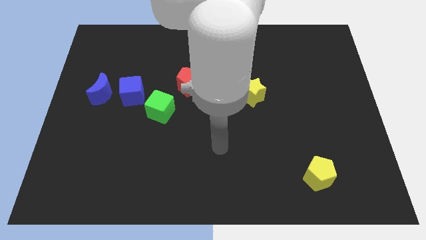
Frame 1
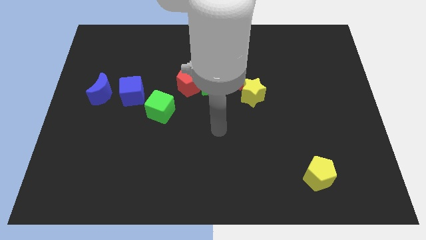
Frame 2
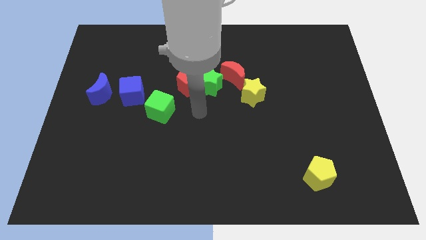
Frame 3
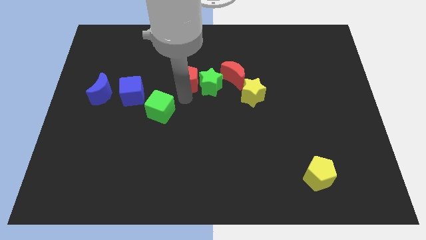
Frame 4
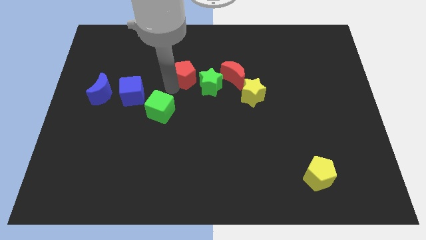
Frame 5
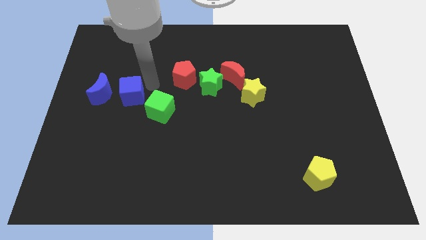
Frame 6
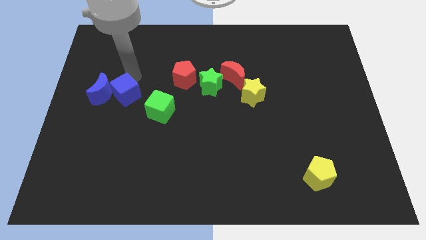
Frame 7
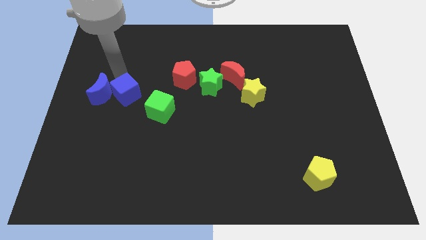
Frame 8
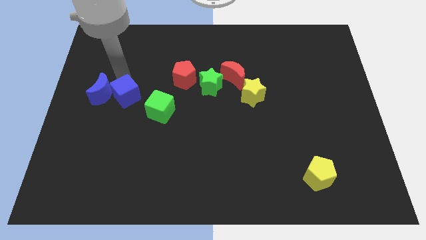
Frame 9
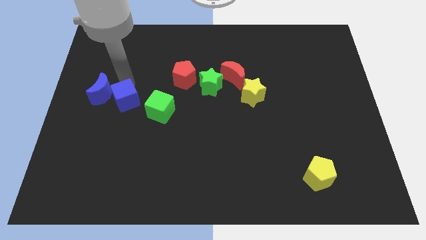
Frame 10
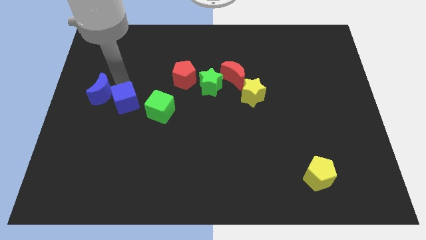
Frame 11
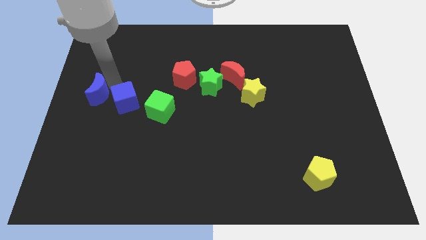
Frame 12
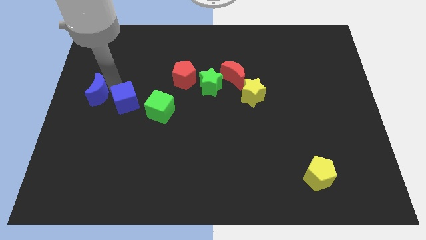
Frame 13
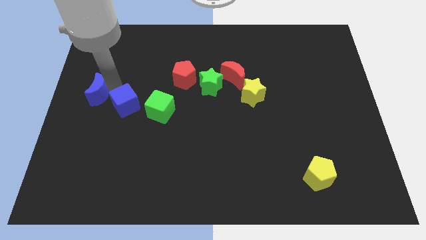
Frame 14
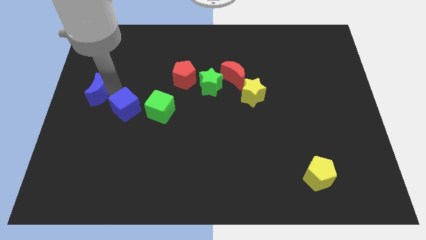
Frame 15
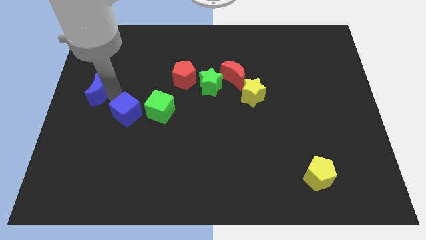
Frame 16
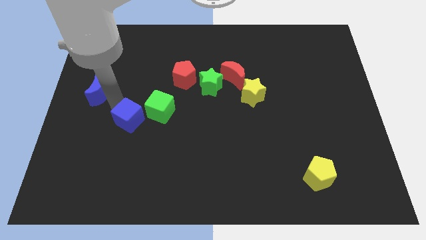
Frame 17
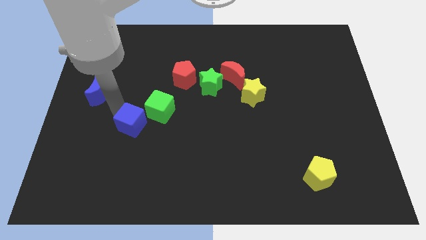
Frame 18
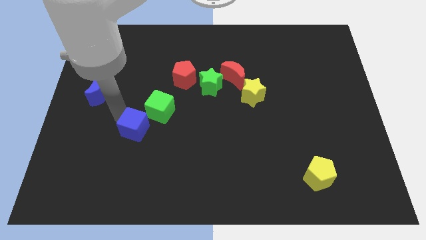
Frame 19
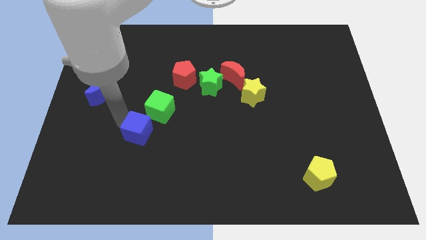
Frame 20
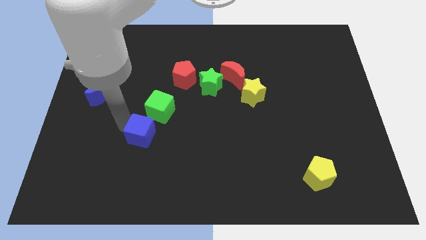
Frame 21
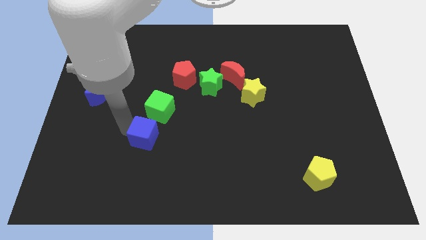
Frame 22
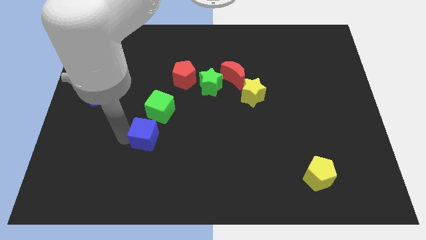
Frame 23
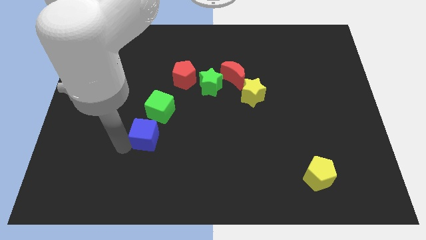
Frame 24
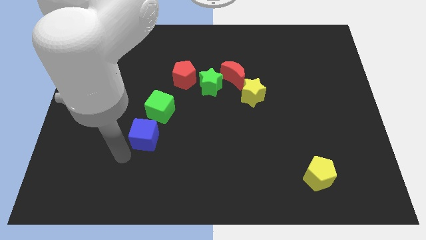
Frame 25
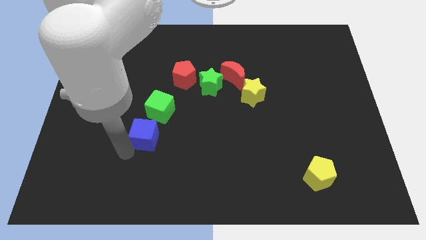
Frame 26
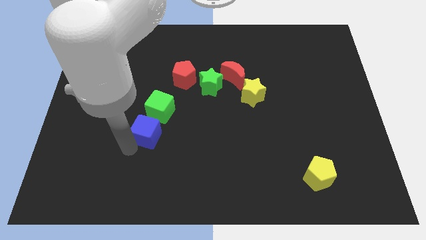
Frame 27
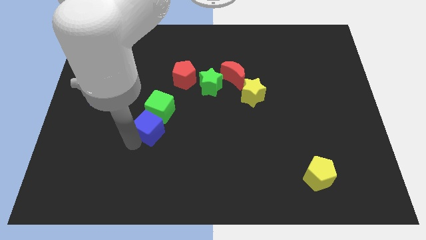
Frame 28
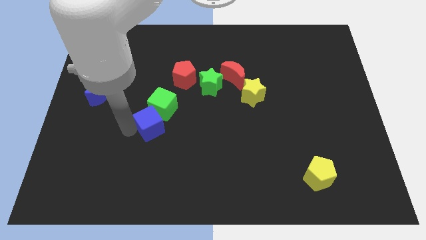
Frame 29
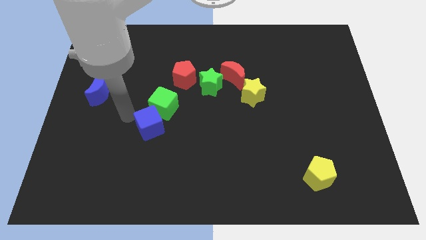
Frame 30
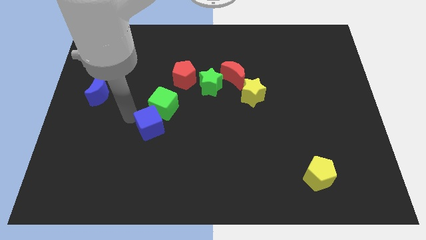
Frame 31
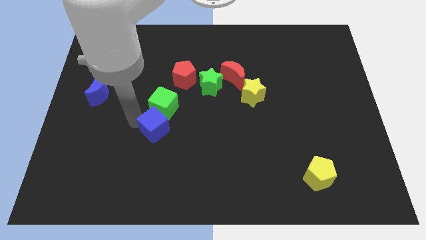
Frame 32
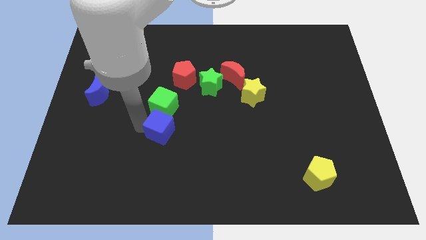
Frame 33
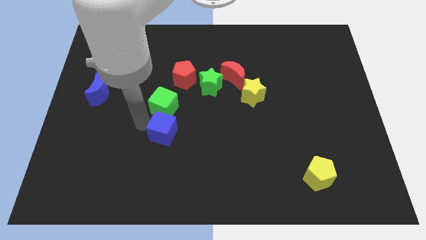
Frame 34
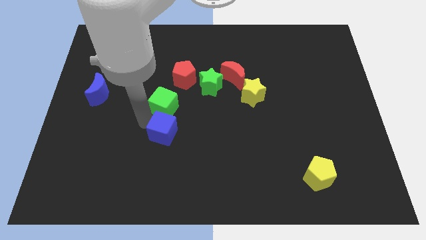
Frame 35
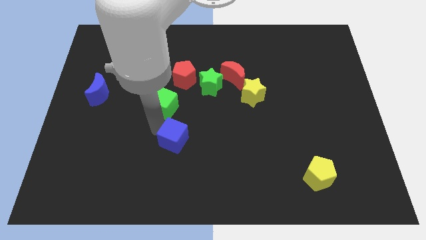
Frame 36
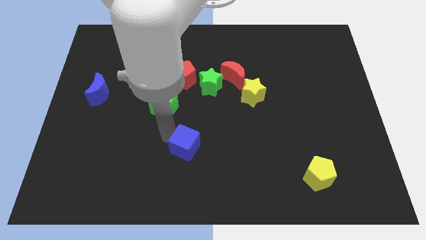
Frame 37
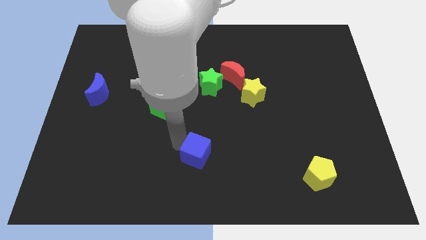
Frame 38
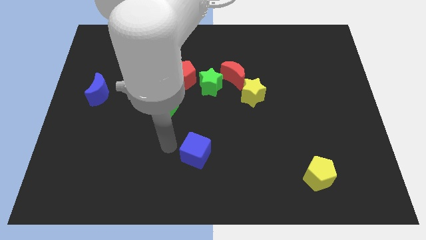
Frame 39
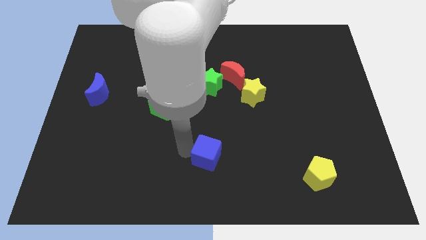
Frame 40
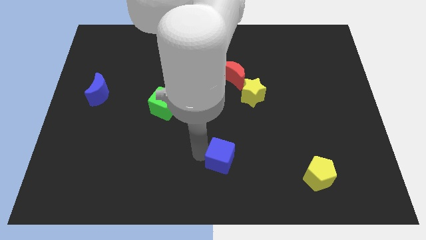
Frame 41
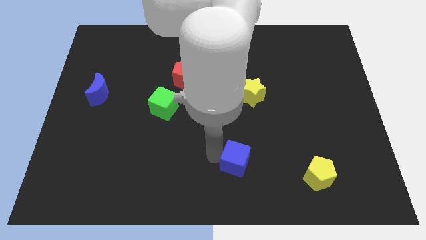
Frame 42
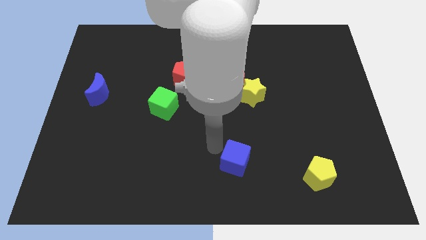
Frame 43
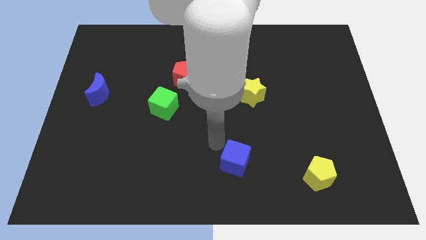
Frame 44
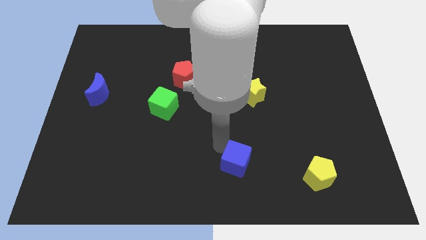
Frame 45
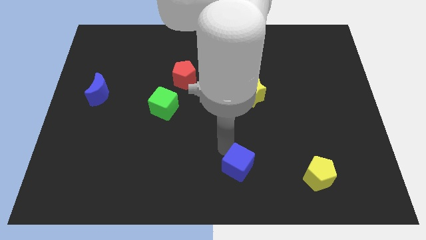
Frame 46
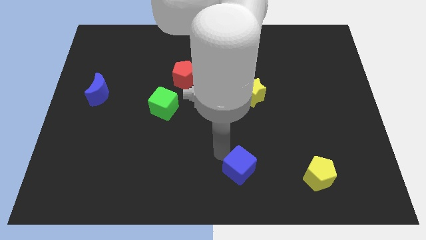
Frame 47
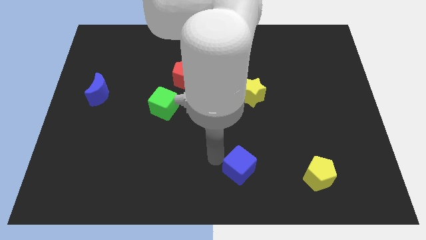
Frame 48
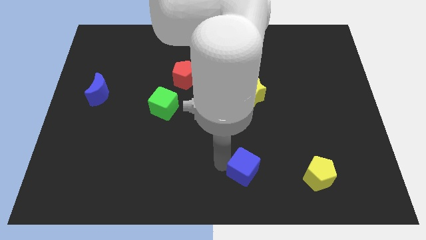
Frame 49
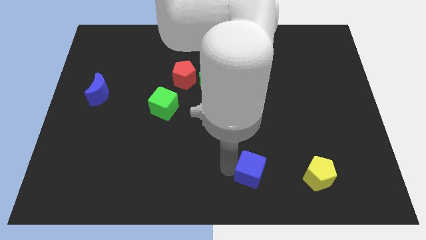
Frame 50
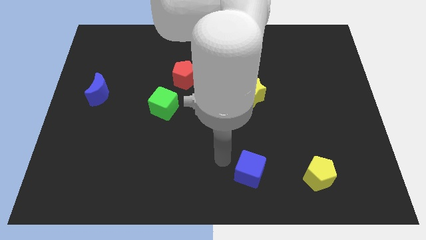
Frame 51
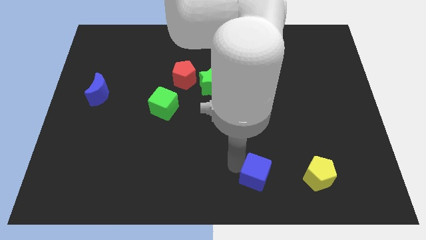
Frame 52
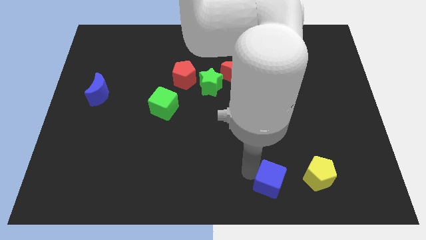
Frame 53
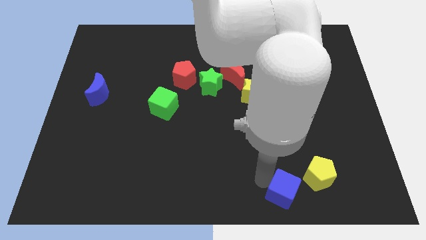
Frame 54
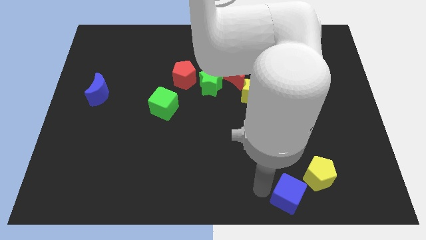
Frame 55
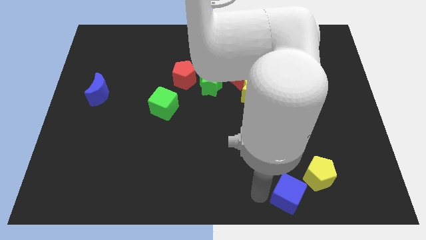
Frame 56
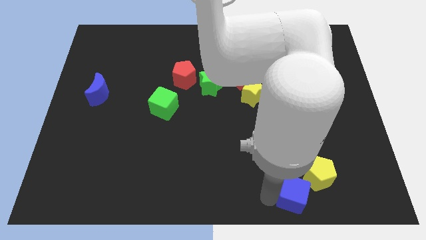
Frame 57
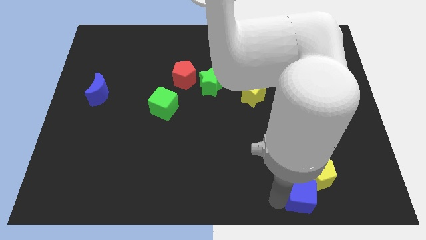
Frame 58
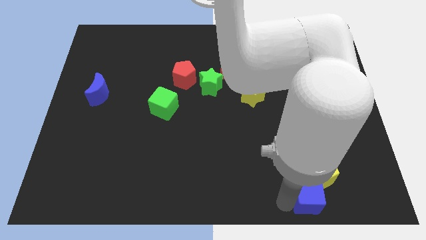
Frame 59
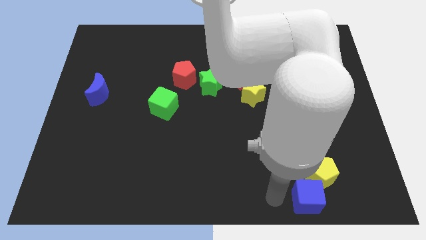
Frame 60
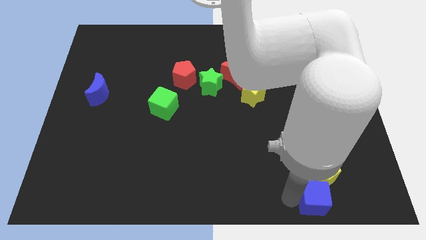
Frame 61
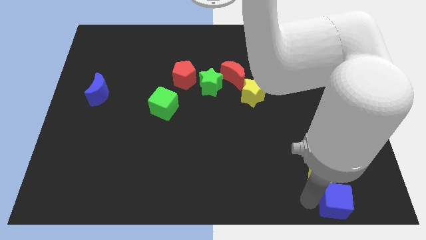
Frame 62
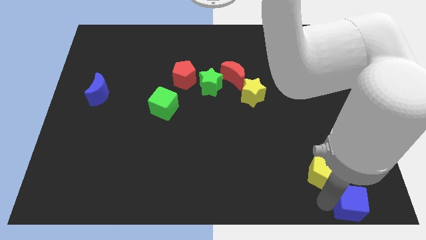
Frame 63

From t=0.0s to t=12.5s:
move the blue cube to the bottom right corner

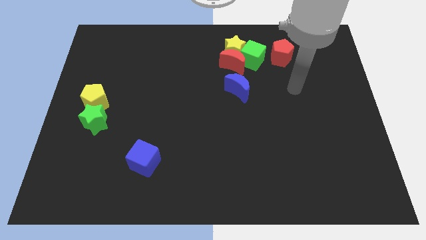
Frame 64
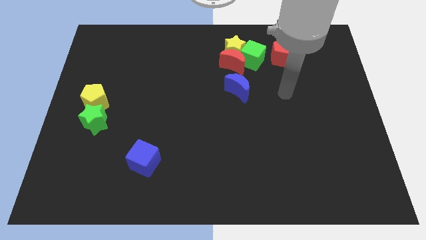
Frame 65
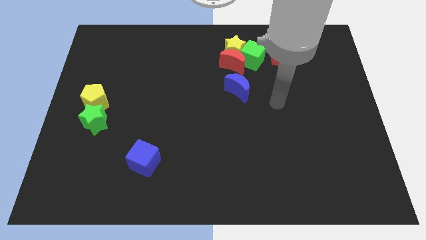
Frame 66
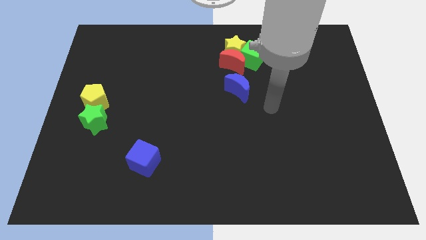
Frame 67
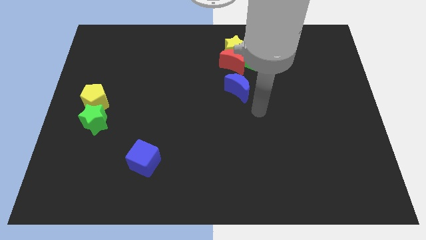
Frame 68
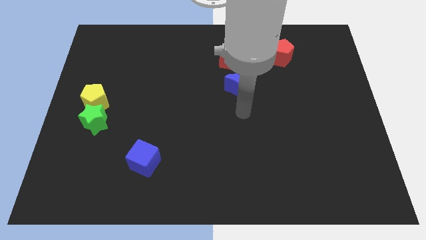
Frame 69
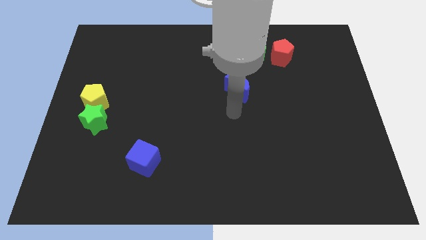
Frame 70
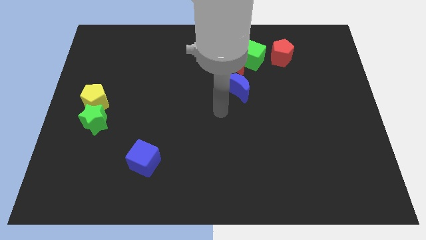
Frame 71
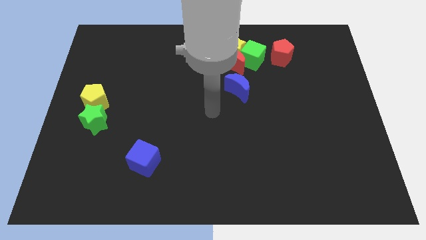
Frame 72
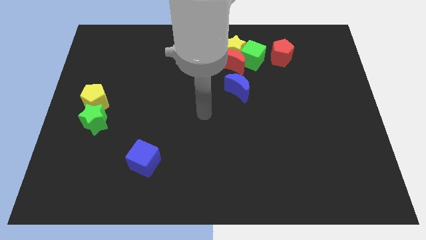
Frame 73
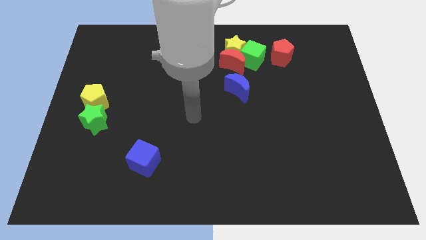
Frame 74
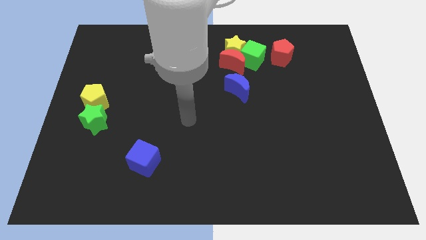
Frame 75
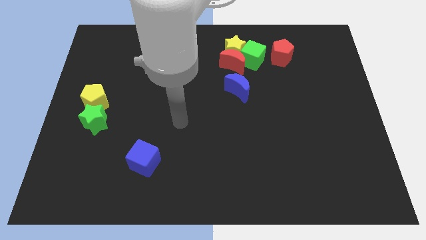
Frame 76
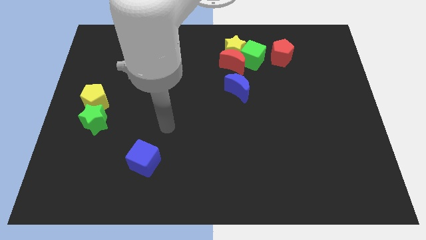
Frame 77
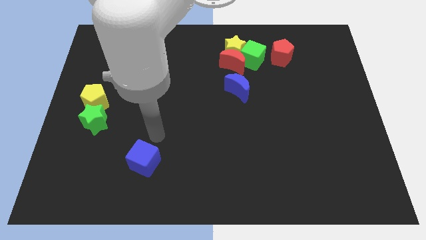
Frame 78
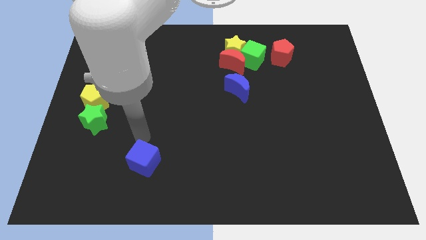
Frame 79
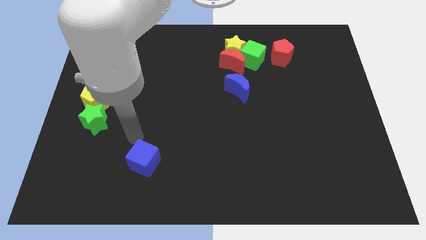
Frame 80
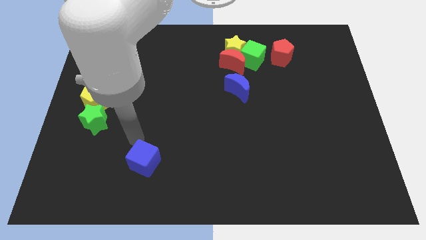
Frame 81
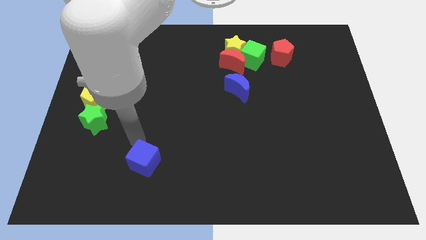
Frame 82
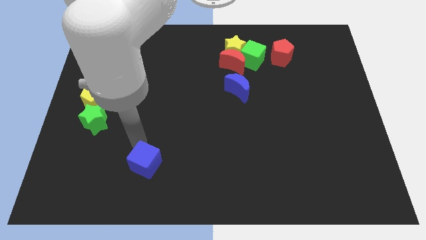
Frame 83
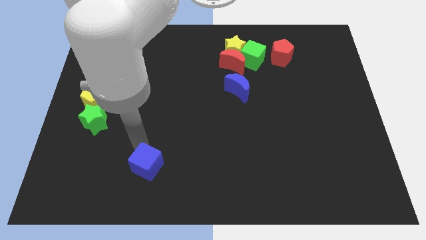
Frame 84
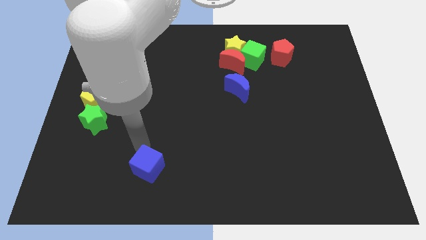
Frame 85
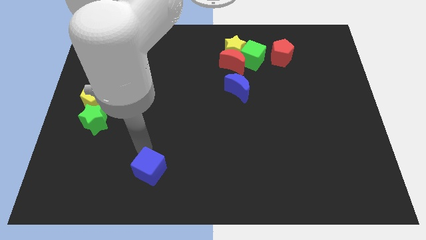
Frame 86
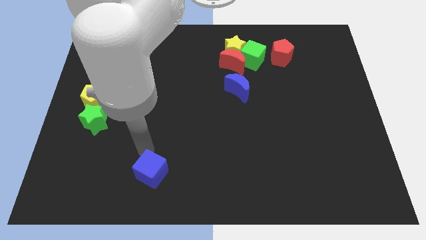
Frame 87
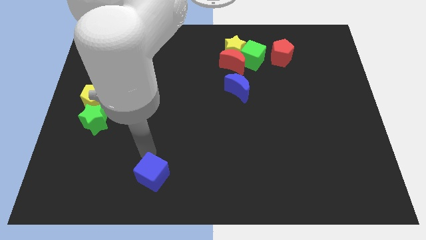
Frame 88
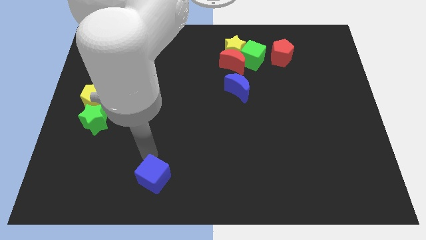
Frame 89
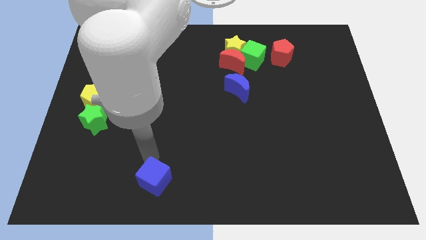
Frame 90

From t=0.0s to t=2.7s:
put the blue cube to the bottom side
